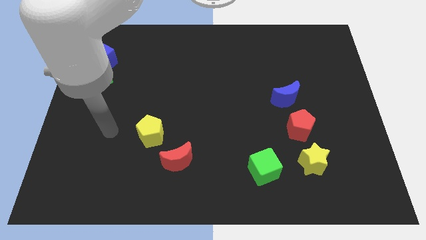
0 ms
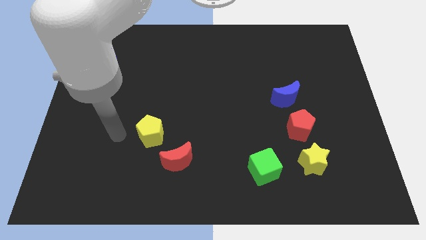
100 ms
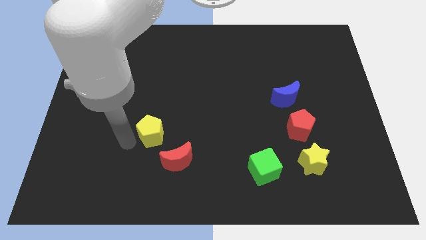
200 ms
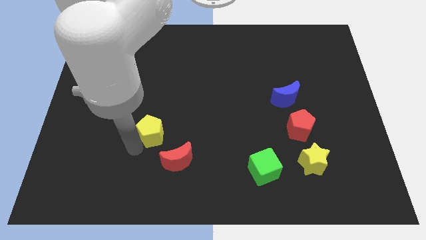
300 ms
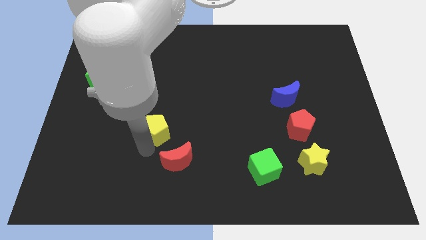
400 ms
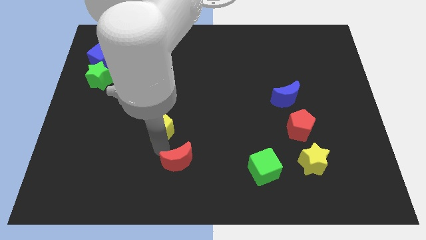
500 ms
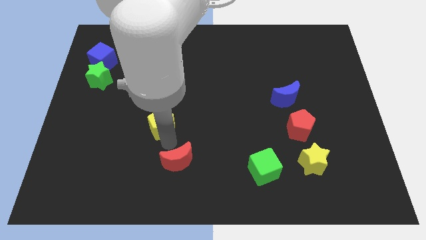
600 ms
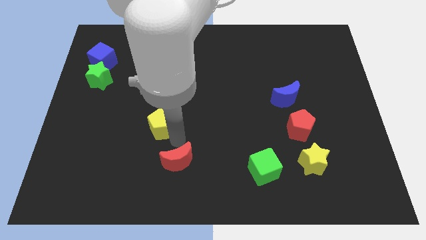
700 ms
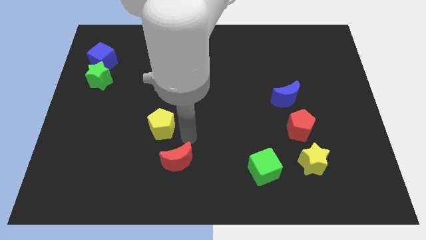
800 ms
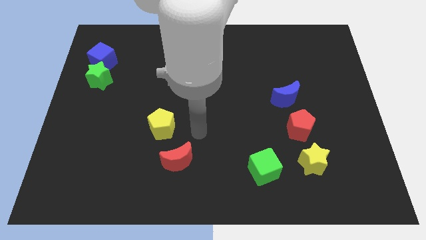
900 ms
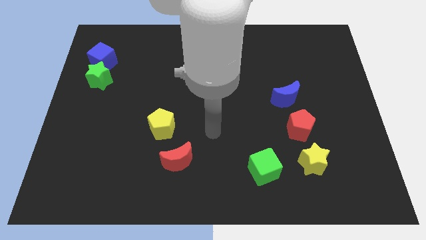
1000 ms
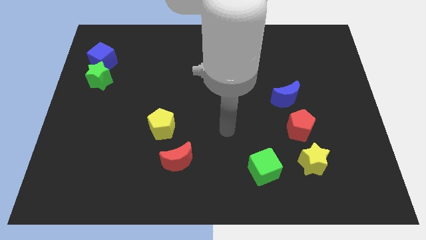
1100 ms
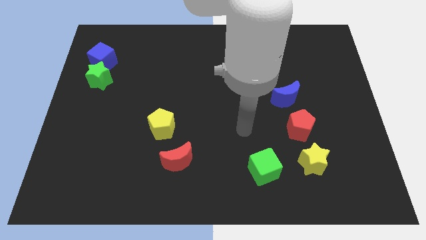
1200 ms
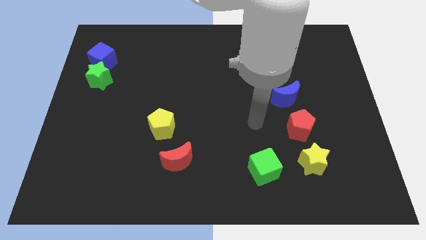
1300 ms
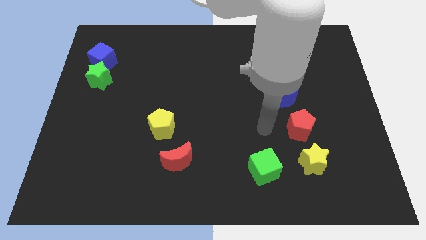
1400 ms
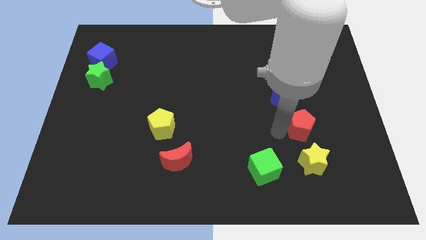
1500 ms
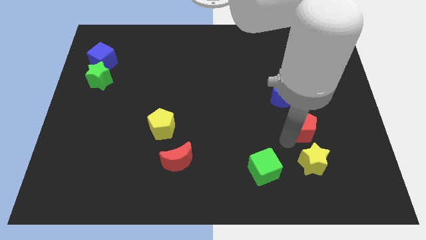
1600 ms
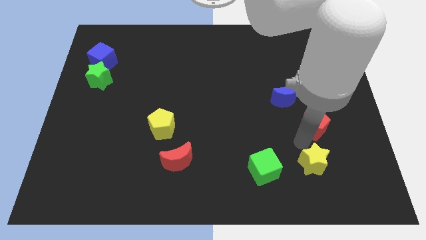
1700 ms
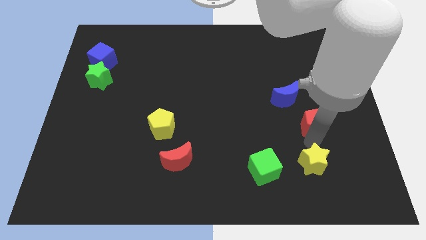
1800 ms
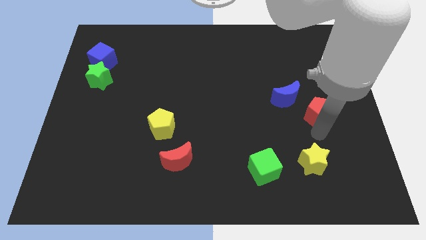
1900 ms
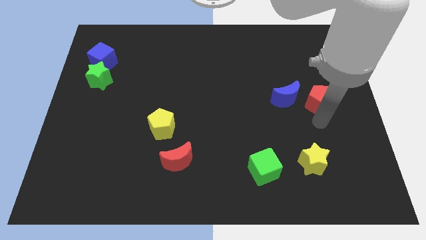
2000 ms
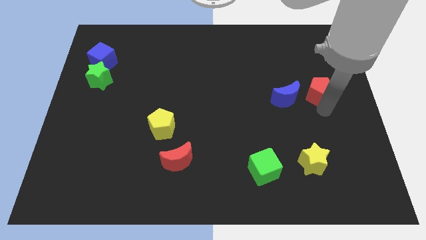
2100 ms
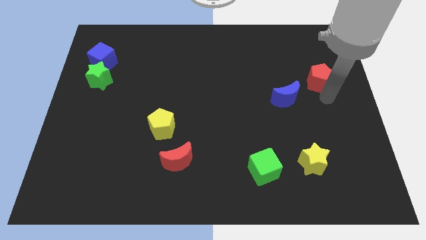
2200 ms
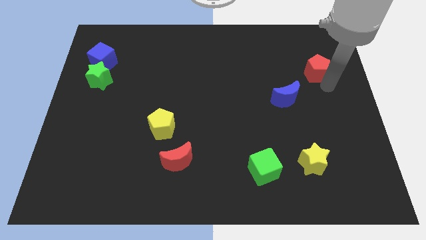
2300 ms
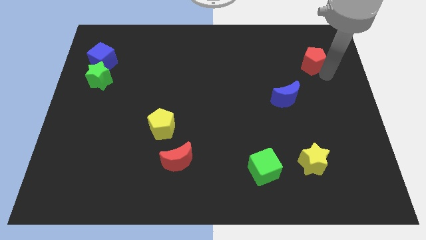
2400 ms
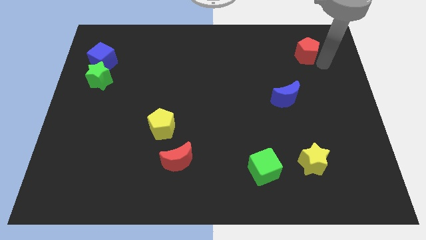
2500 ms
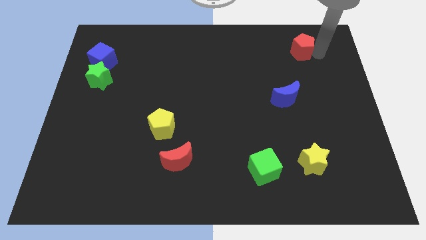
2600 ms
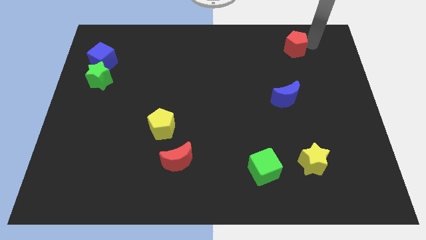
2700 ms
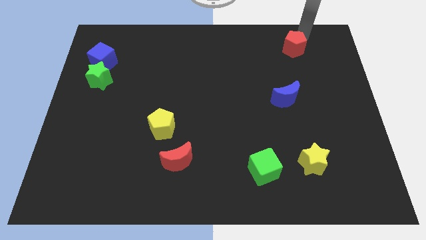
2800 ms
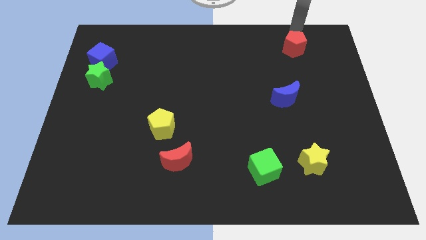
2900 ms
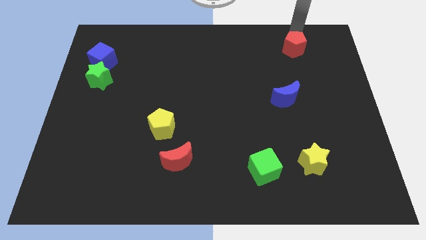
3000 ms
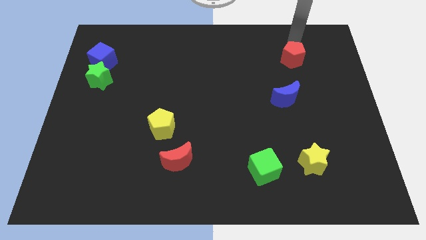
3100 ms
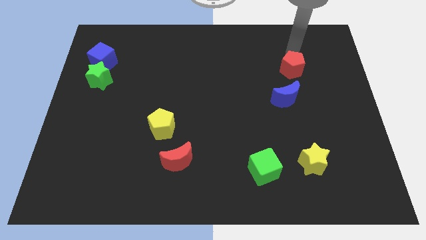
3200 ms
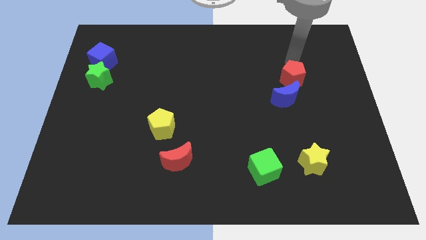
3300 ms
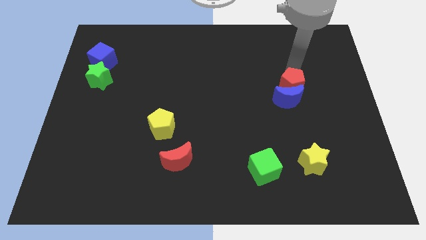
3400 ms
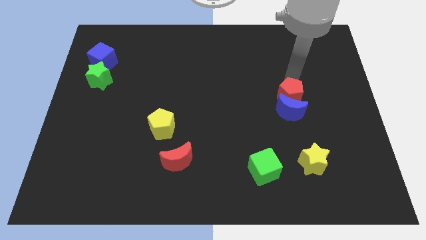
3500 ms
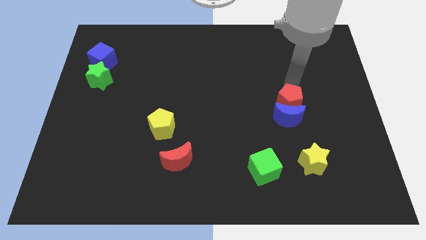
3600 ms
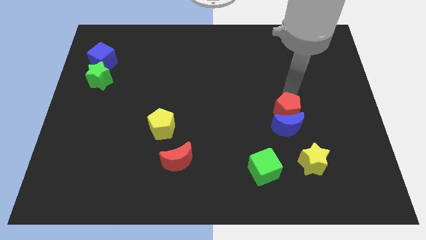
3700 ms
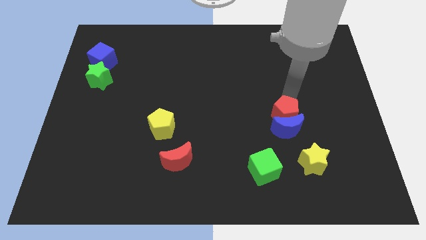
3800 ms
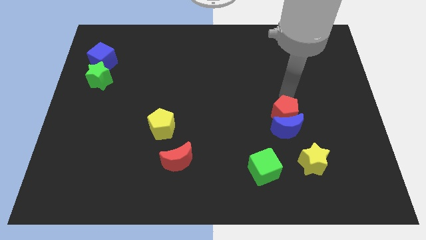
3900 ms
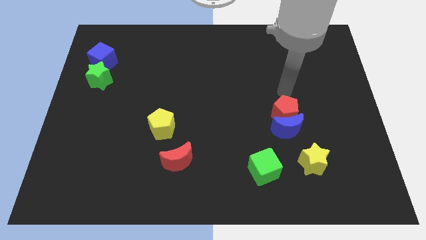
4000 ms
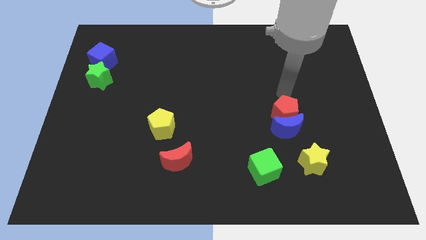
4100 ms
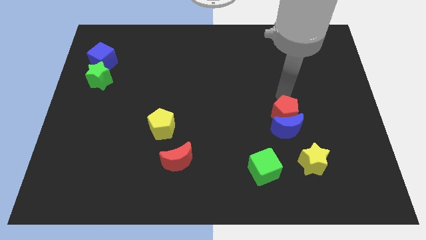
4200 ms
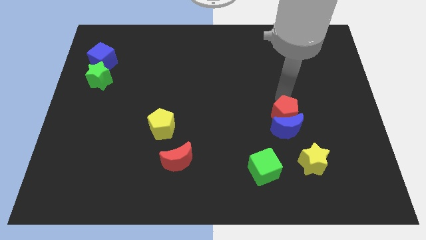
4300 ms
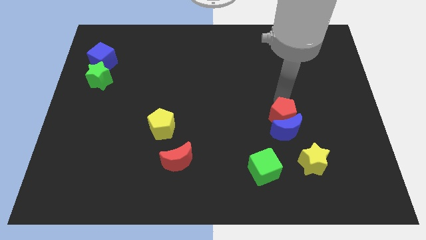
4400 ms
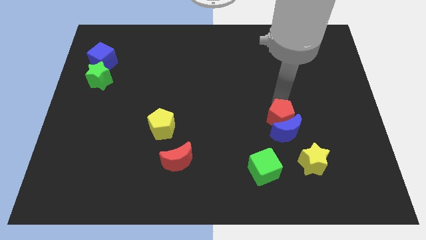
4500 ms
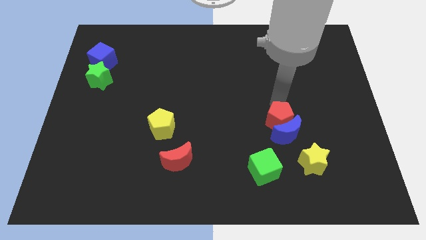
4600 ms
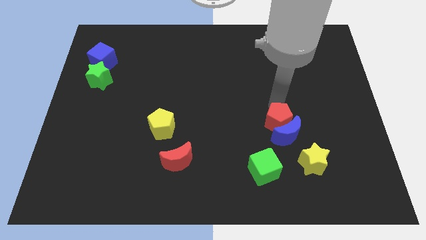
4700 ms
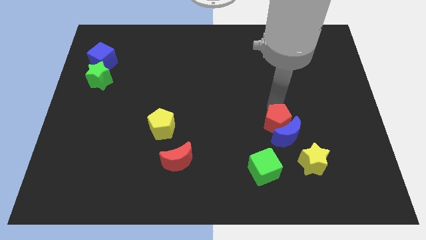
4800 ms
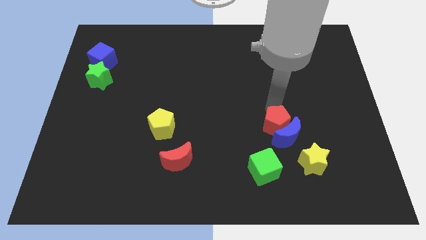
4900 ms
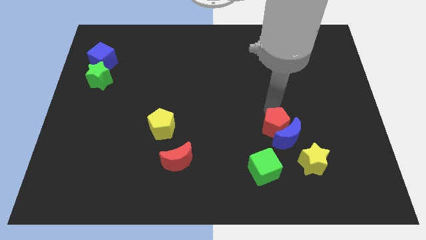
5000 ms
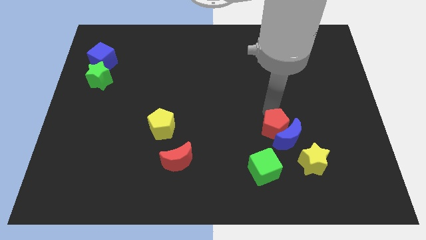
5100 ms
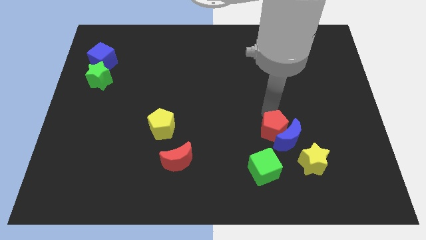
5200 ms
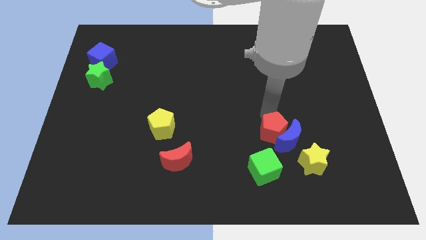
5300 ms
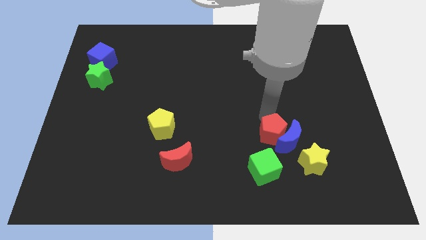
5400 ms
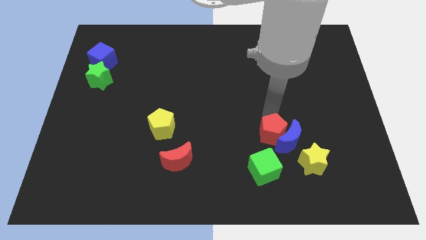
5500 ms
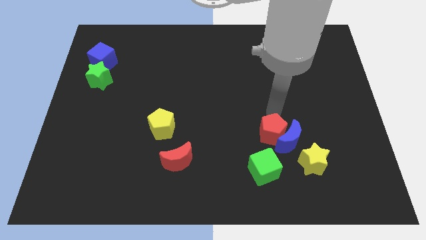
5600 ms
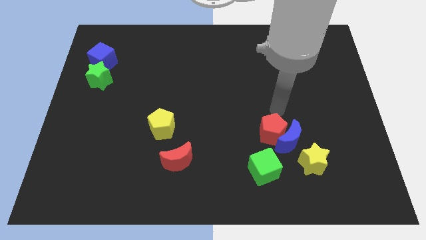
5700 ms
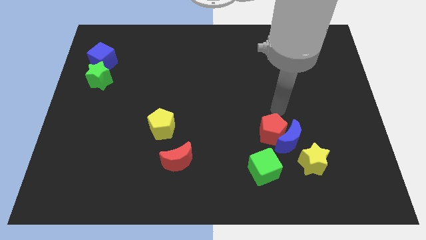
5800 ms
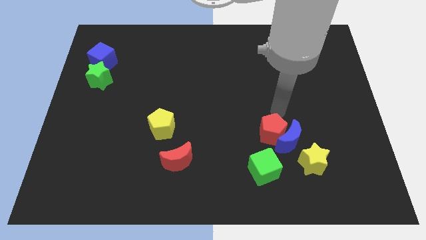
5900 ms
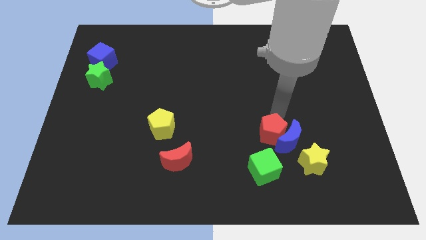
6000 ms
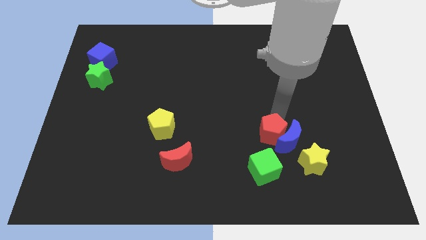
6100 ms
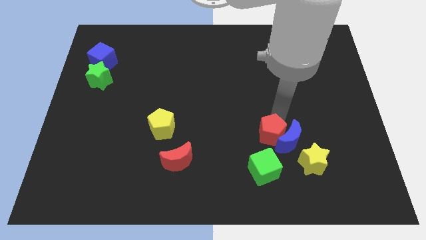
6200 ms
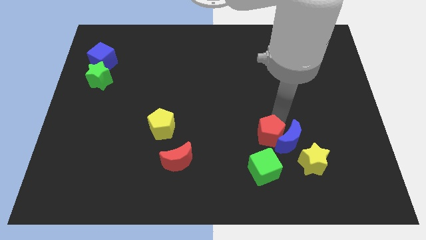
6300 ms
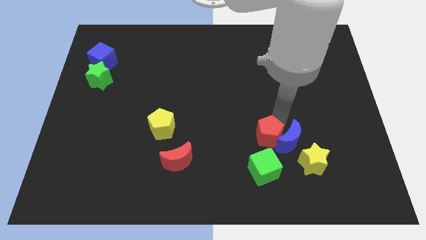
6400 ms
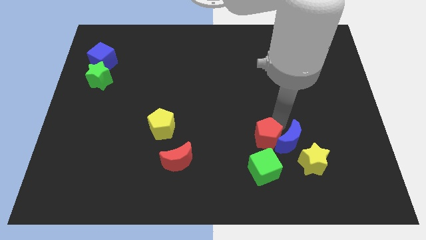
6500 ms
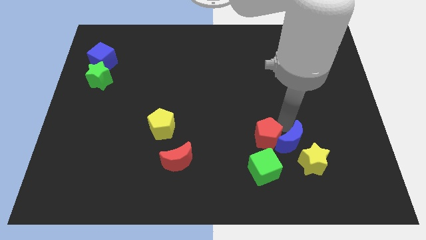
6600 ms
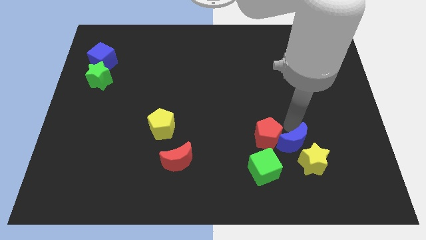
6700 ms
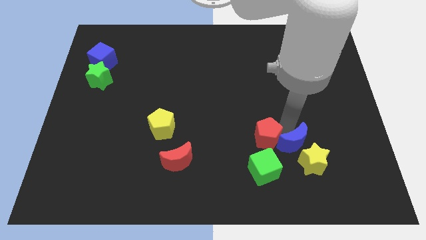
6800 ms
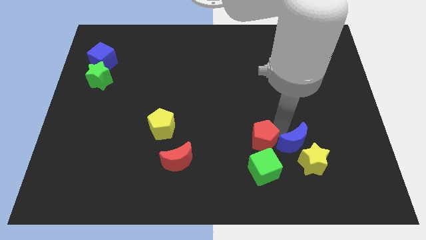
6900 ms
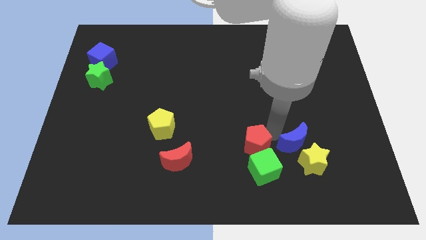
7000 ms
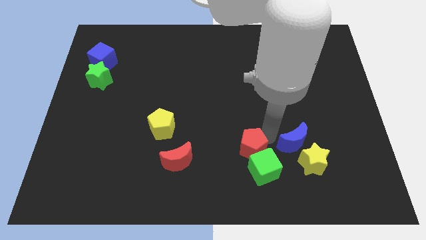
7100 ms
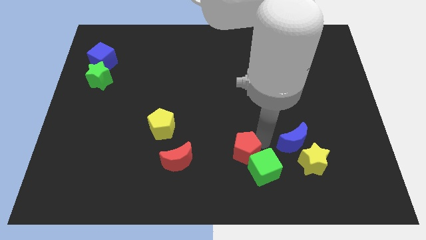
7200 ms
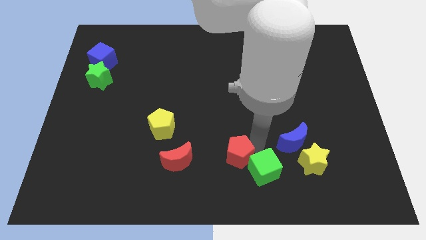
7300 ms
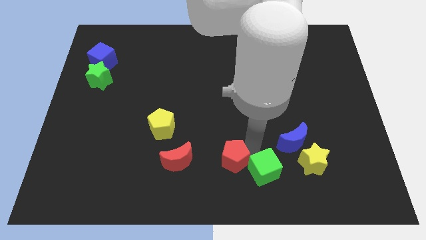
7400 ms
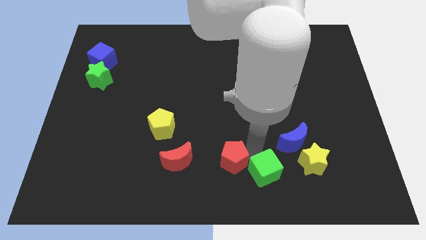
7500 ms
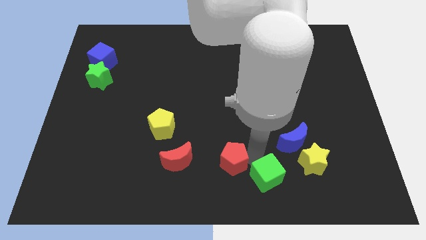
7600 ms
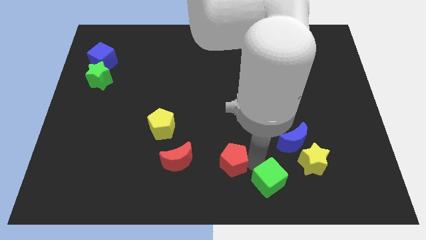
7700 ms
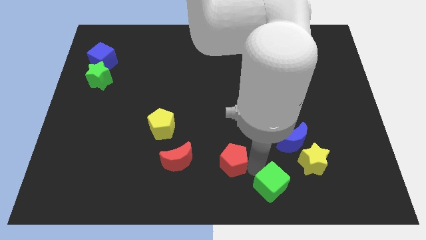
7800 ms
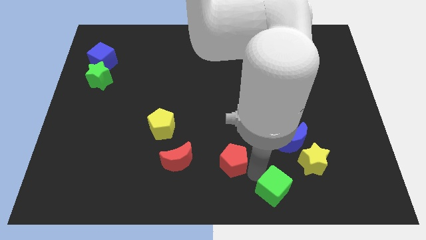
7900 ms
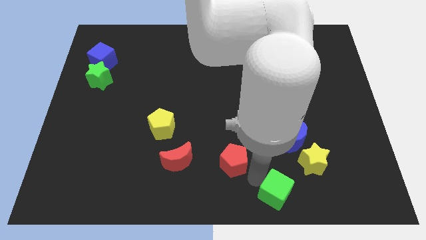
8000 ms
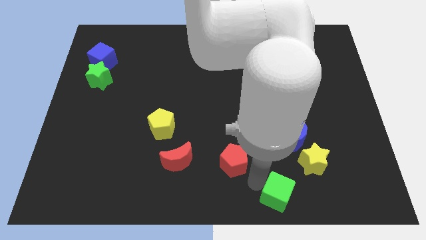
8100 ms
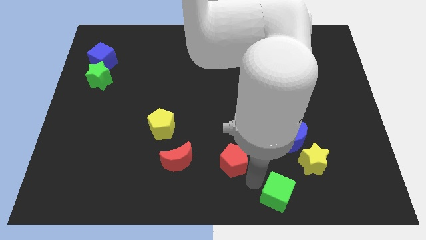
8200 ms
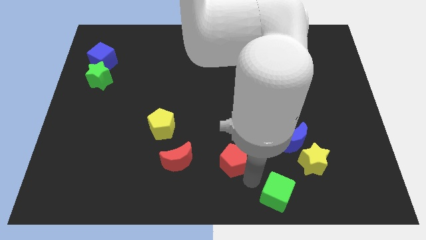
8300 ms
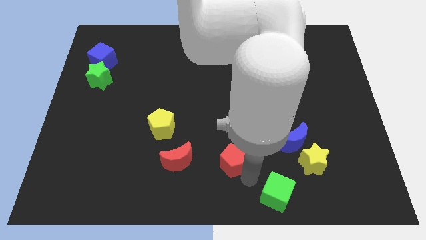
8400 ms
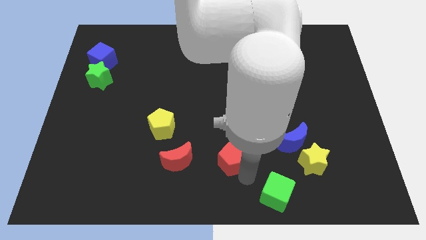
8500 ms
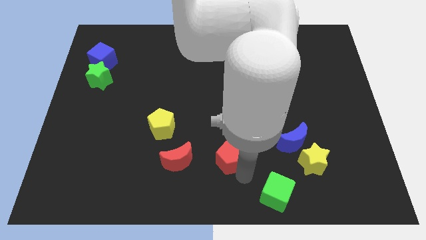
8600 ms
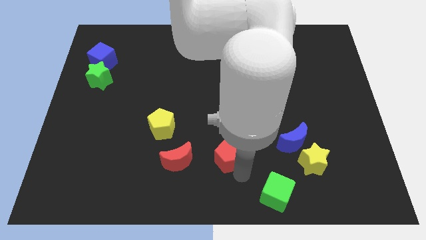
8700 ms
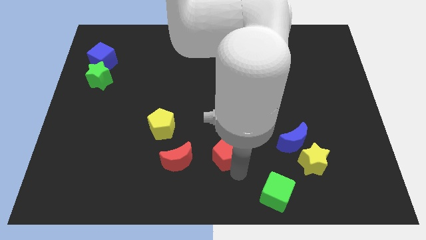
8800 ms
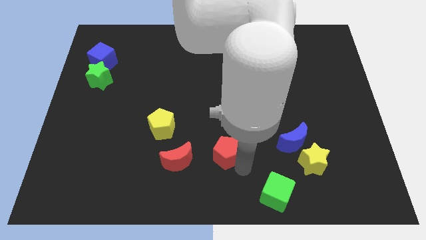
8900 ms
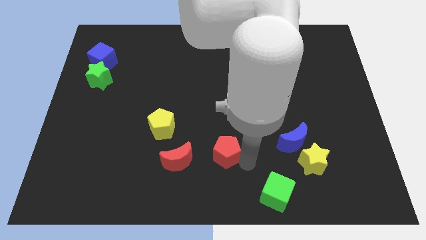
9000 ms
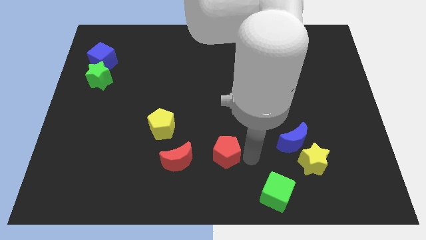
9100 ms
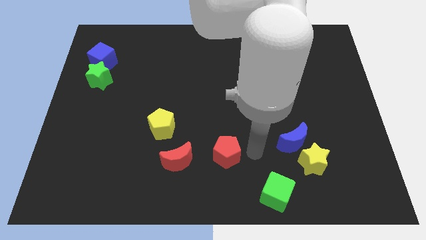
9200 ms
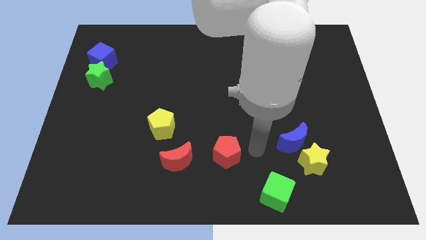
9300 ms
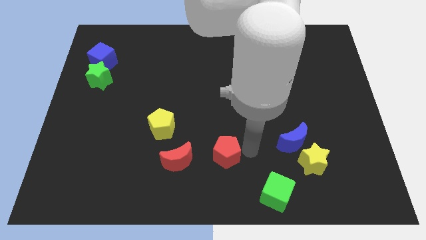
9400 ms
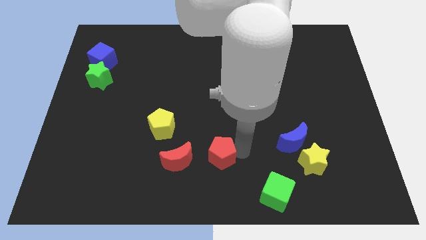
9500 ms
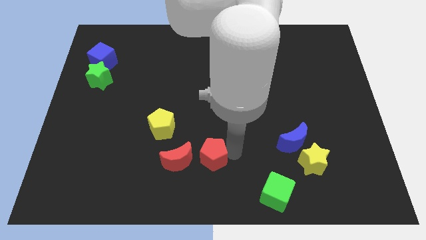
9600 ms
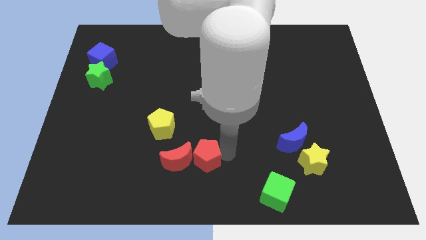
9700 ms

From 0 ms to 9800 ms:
put the red pentagon next to the red moon
